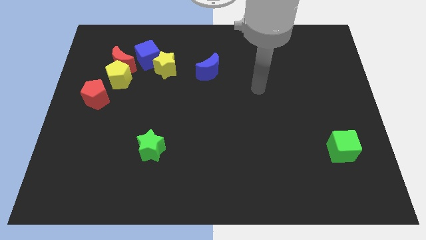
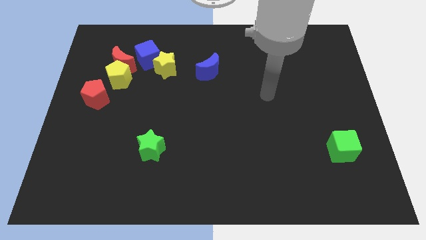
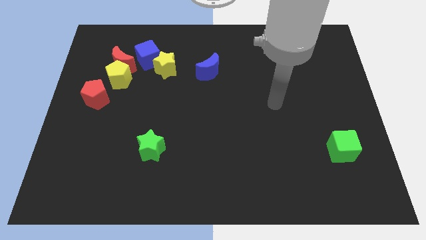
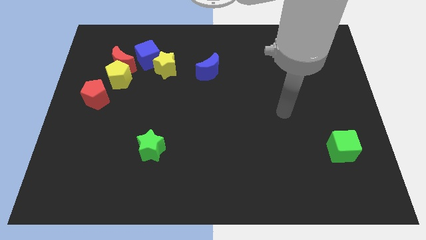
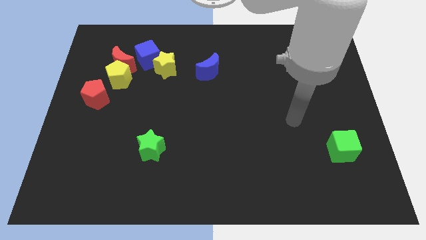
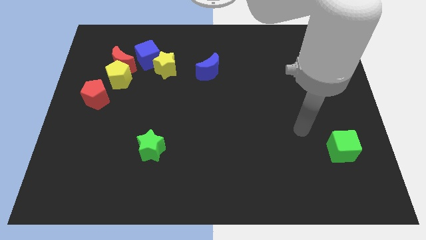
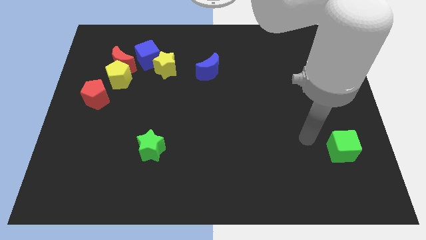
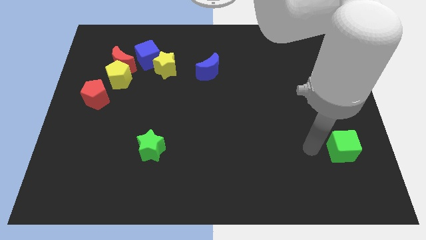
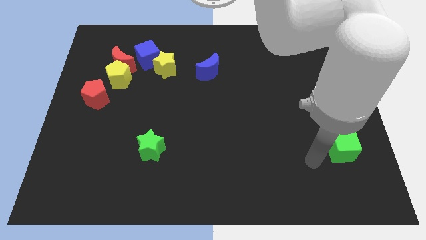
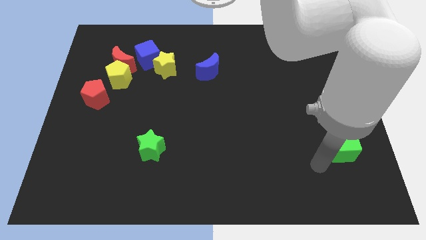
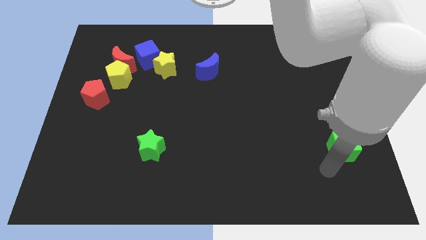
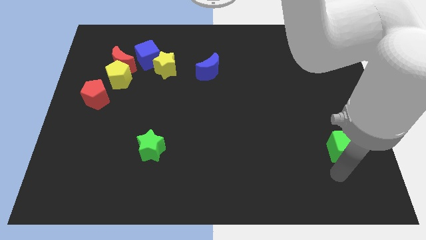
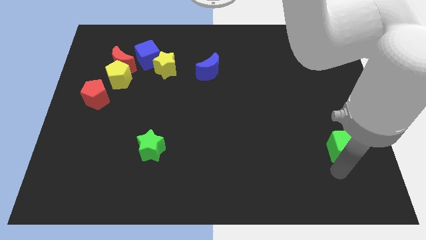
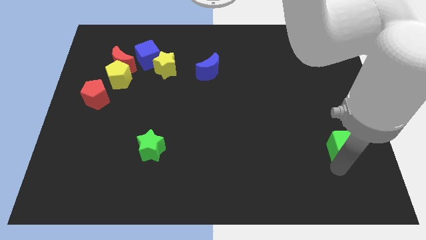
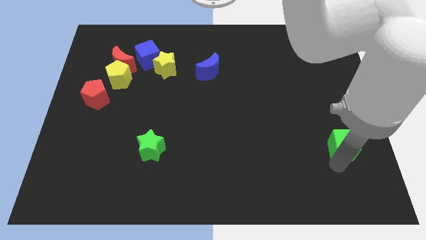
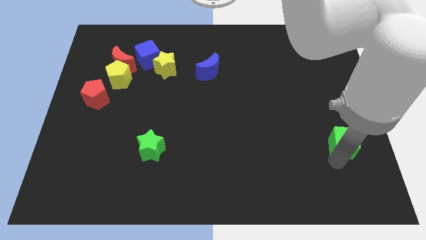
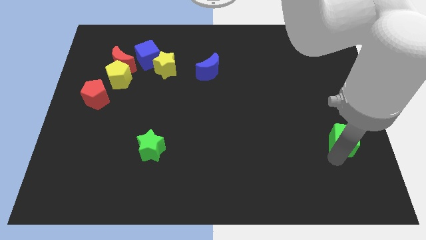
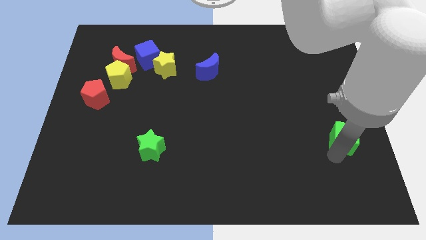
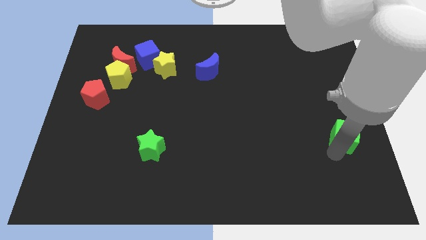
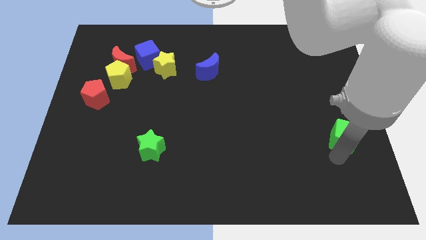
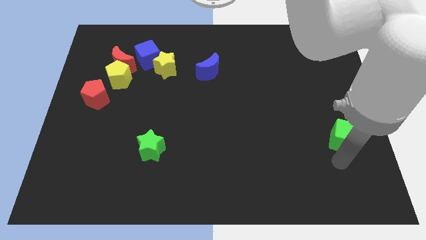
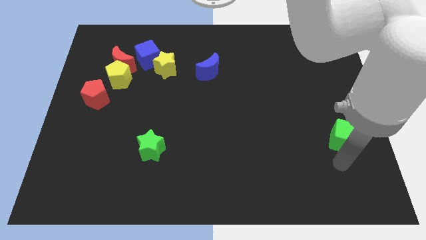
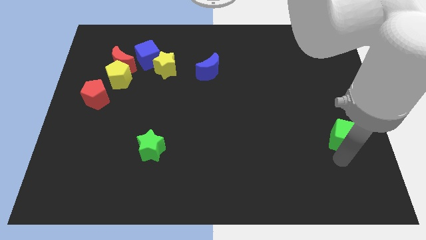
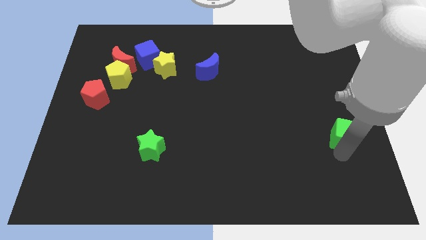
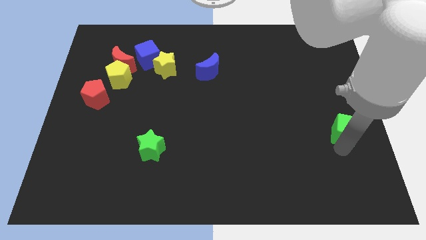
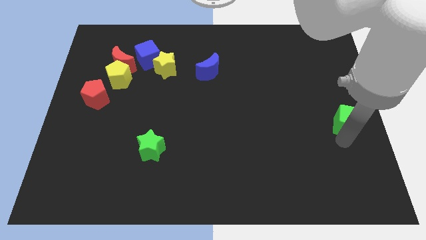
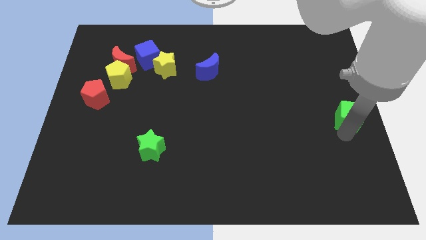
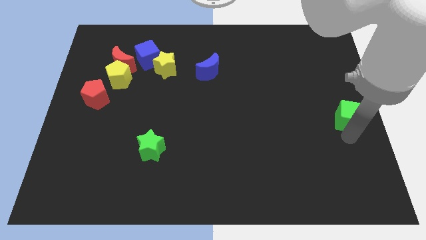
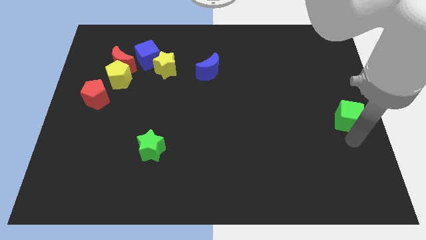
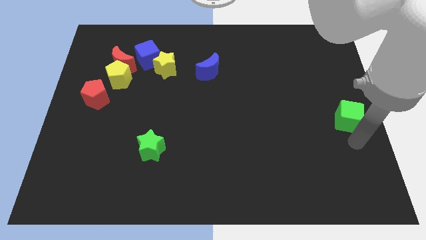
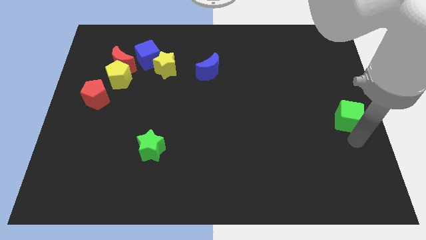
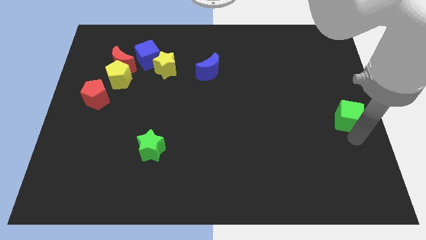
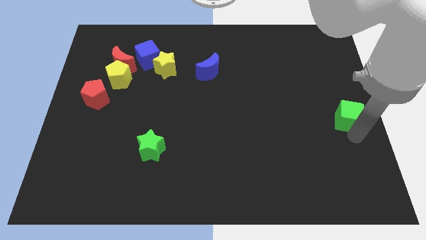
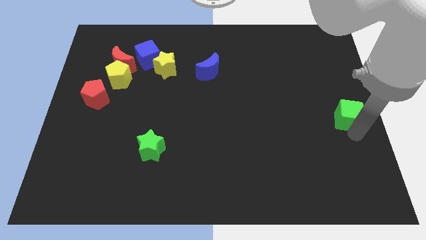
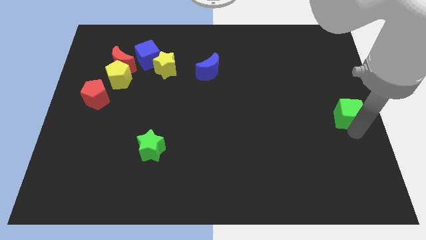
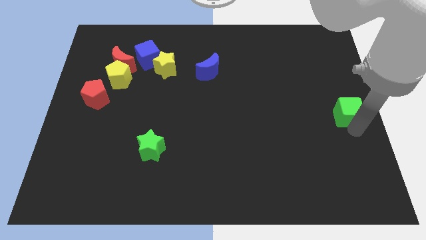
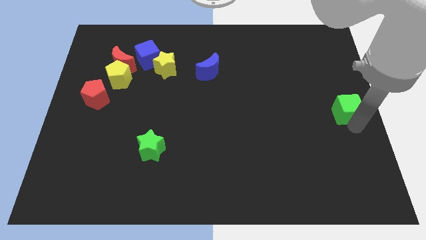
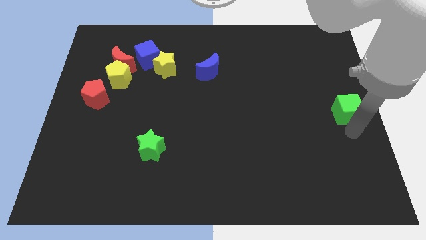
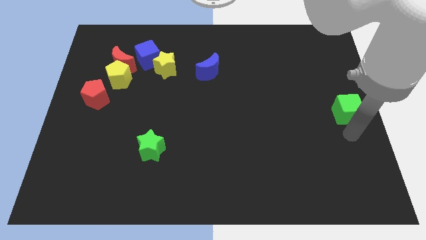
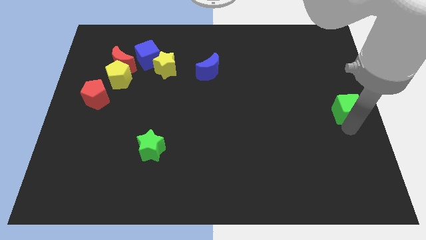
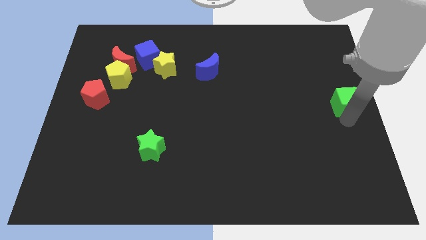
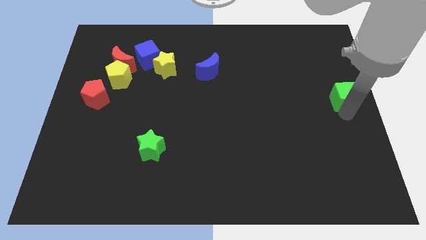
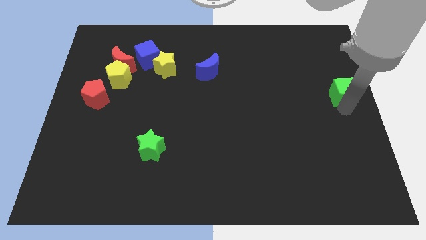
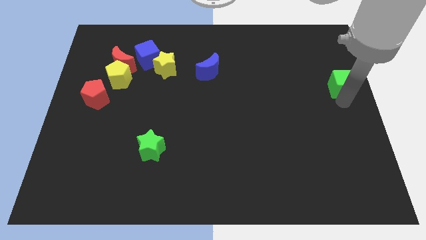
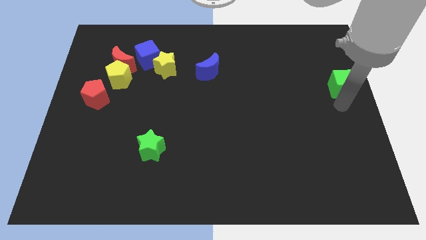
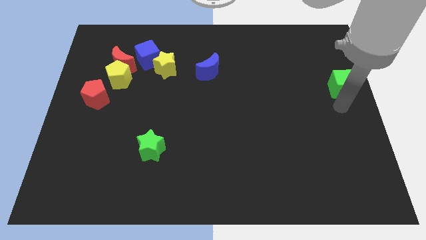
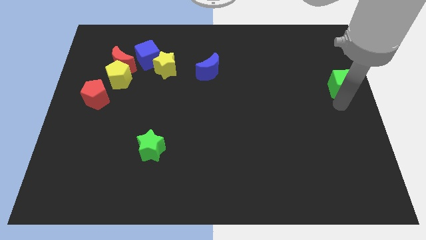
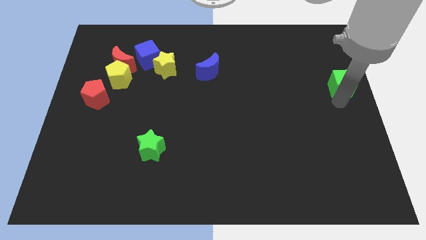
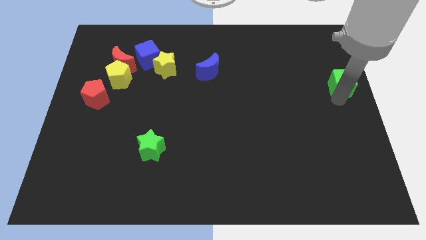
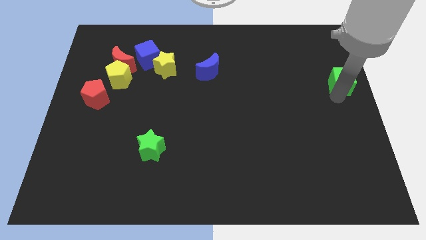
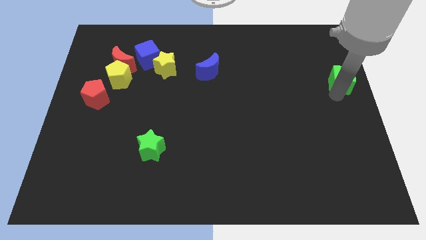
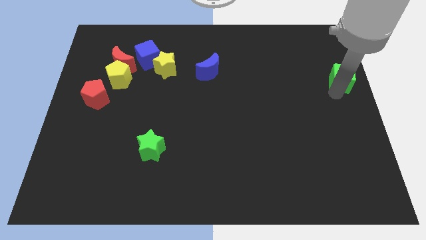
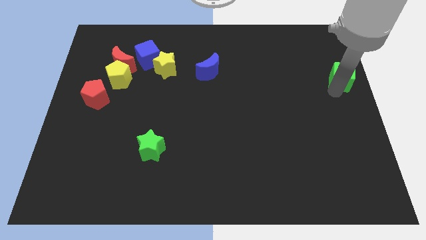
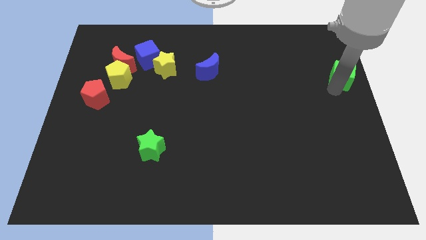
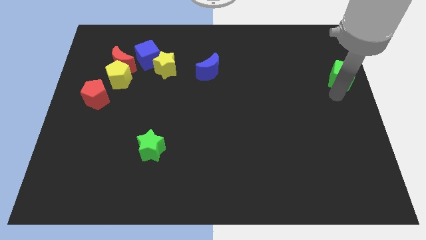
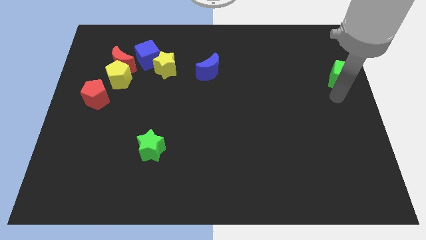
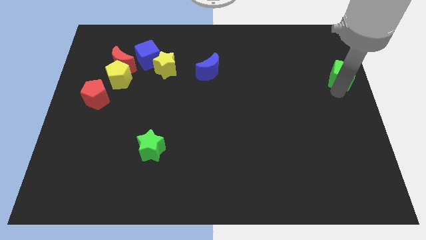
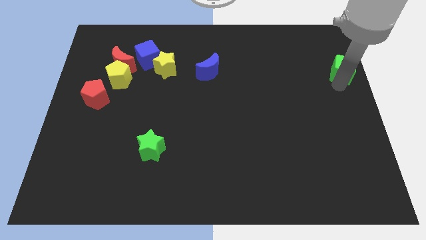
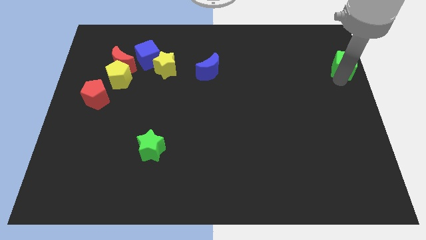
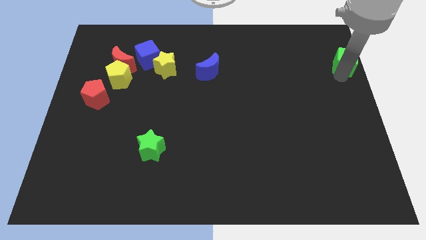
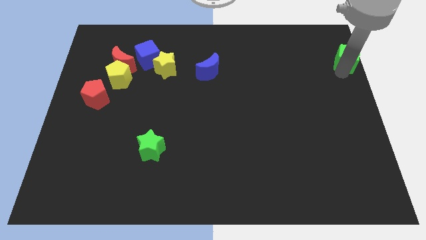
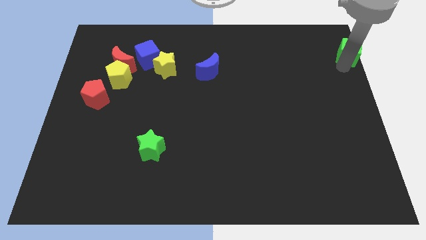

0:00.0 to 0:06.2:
put the green cube to the upper right corner

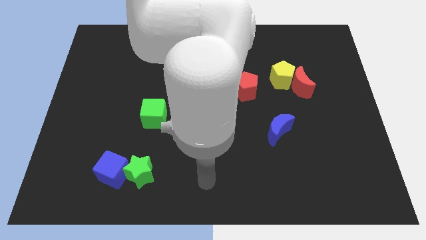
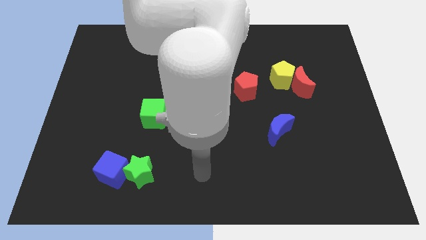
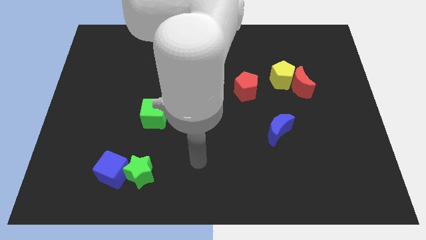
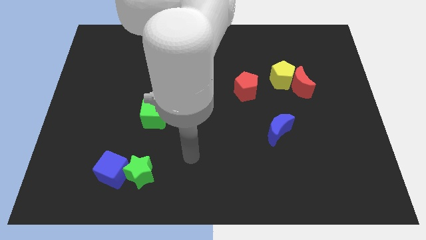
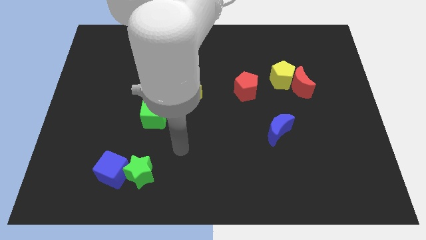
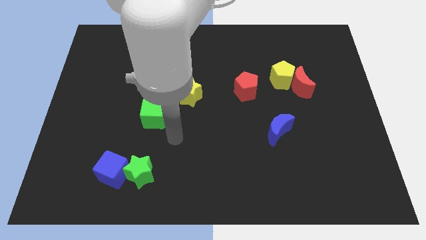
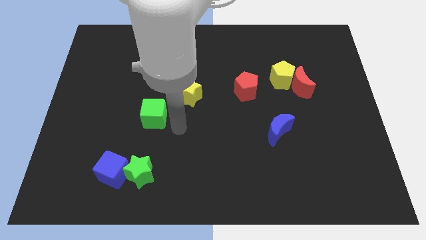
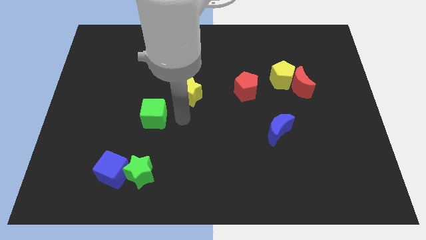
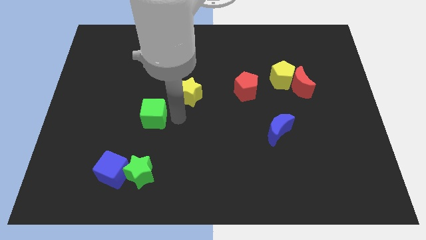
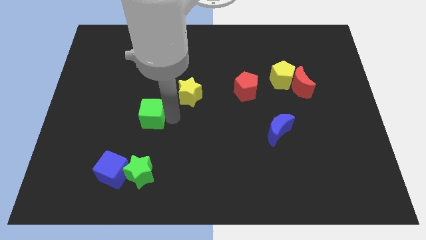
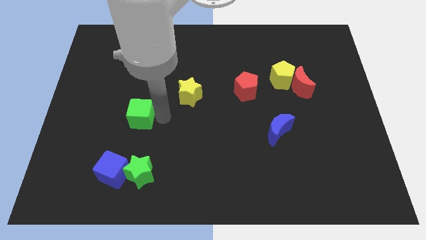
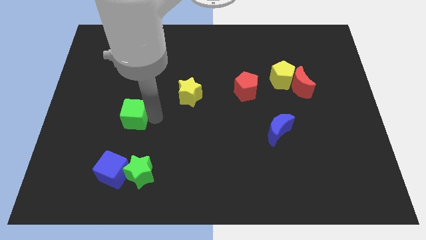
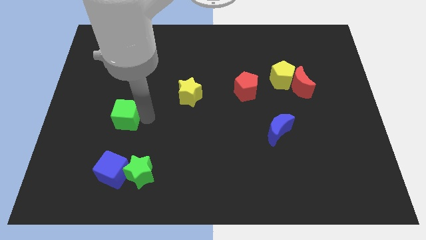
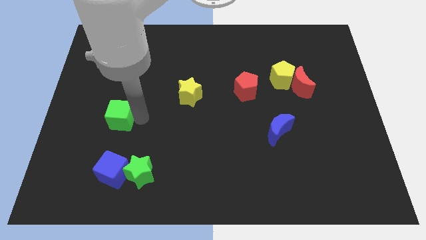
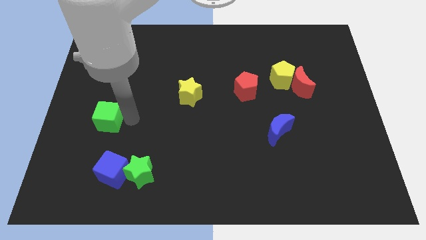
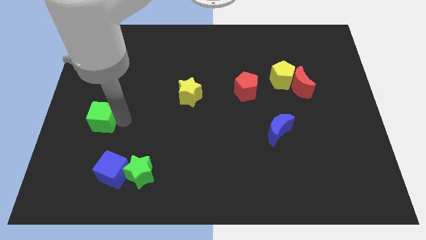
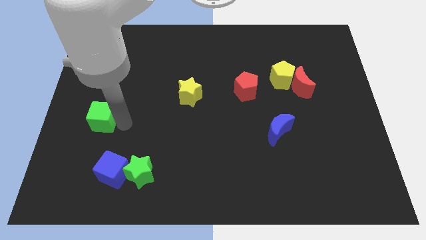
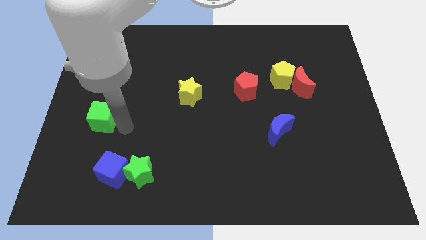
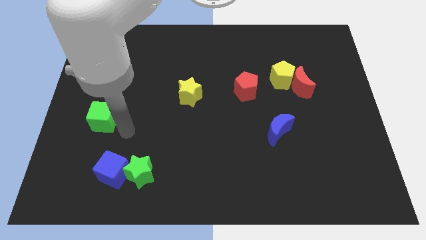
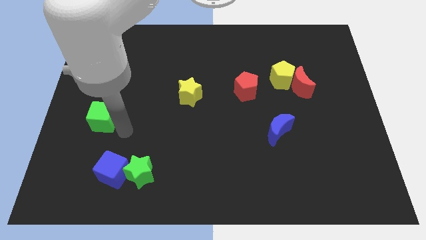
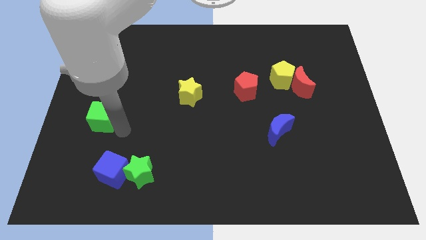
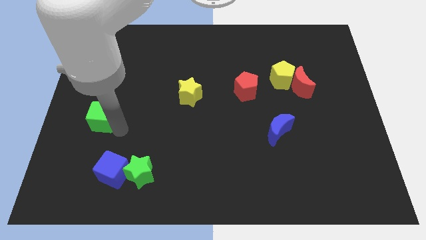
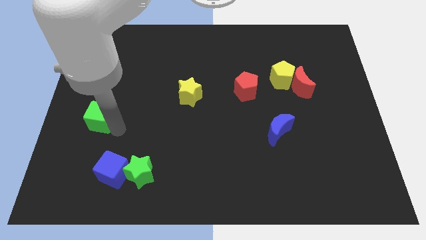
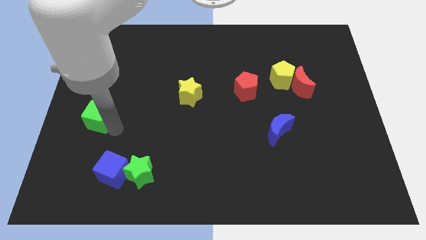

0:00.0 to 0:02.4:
put the green cube to the left side of the board
